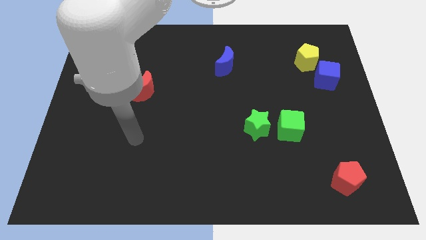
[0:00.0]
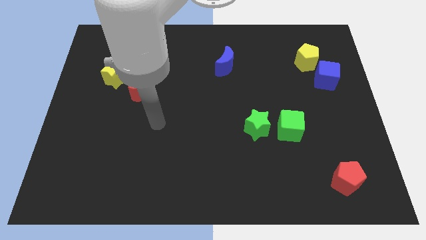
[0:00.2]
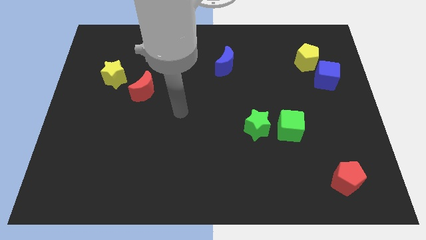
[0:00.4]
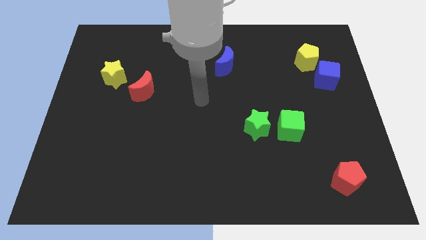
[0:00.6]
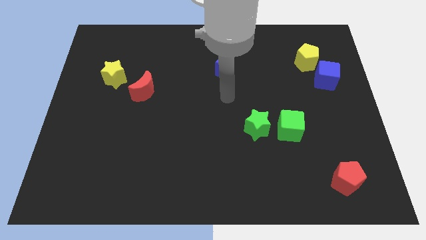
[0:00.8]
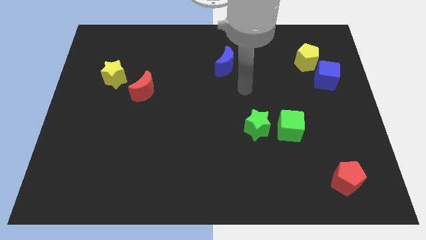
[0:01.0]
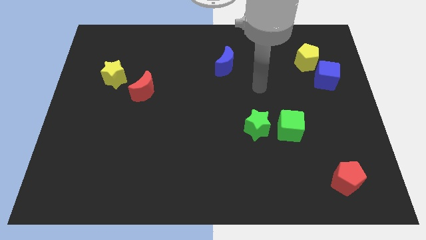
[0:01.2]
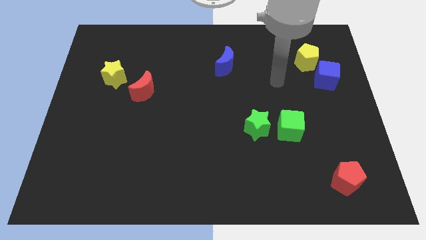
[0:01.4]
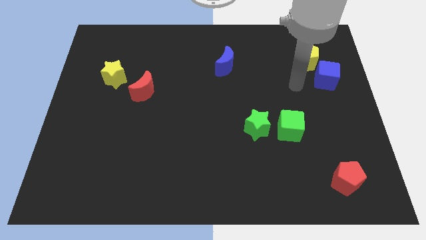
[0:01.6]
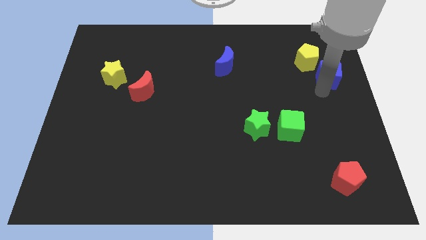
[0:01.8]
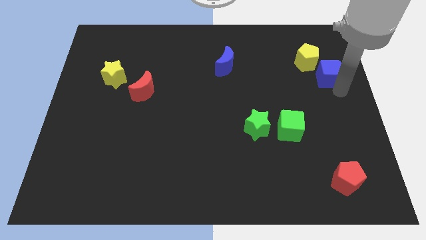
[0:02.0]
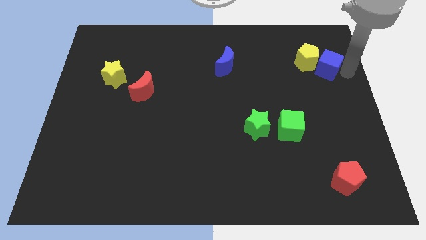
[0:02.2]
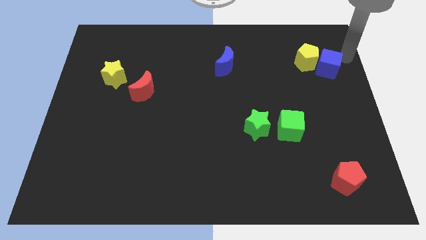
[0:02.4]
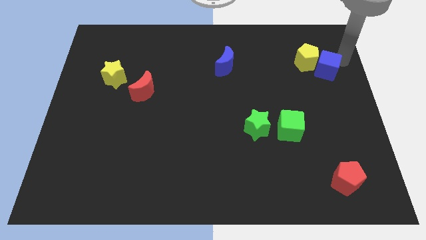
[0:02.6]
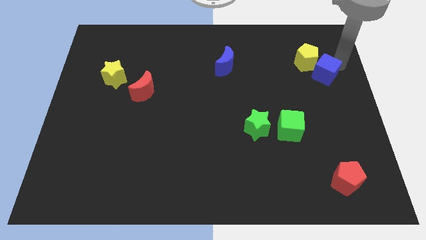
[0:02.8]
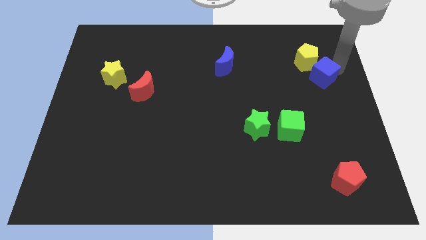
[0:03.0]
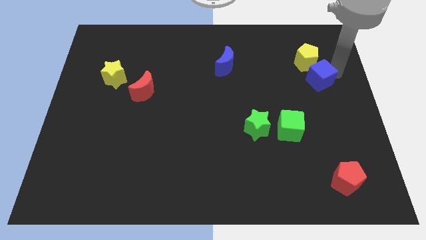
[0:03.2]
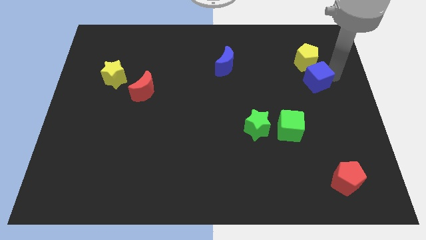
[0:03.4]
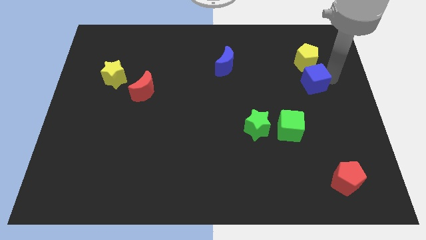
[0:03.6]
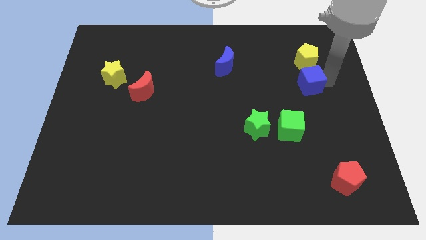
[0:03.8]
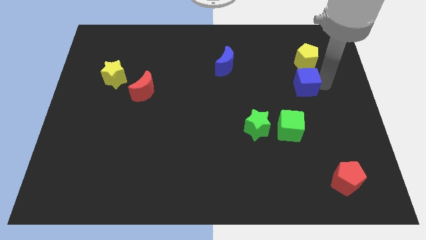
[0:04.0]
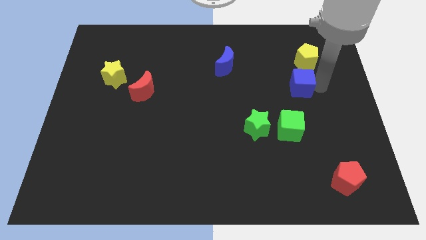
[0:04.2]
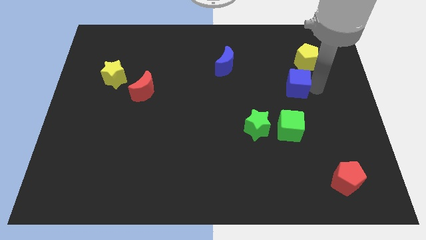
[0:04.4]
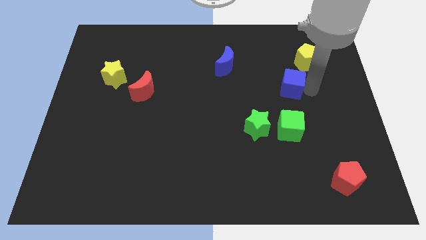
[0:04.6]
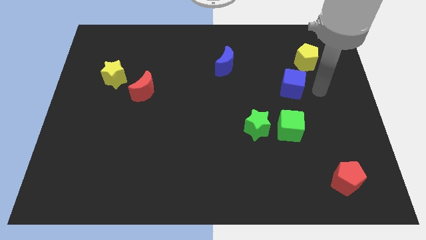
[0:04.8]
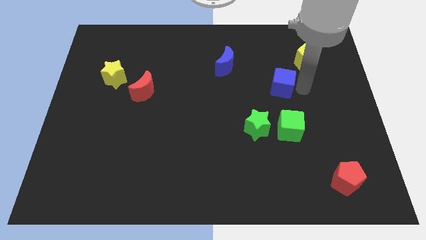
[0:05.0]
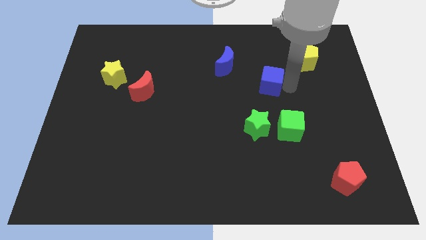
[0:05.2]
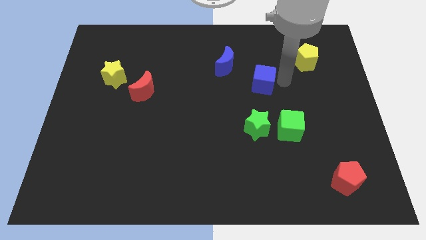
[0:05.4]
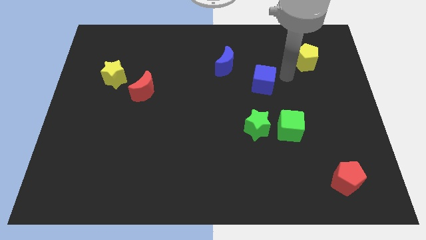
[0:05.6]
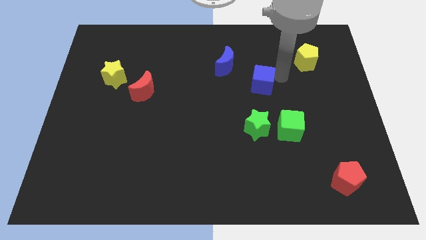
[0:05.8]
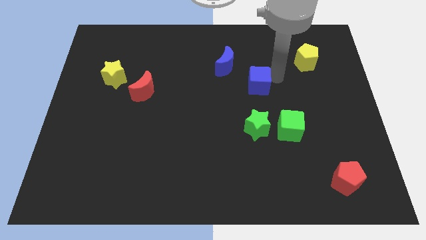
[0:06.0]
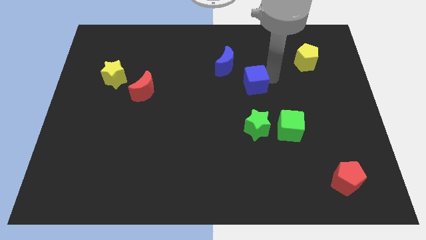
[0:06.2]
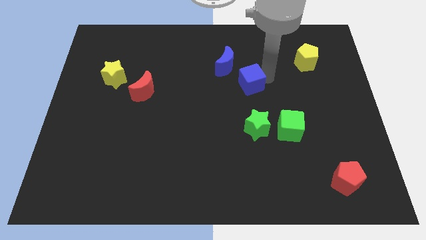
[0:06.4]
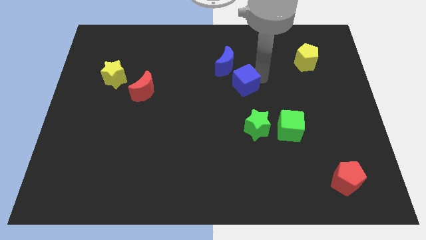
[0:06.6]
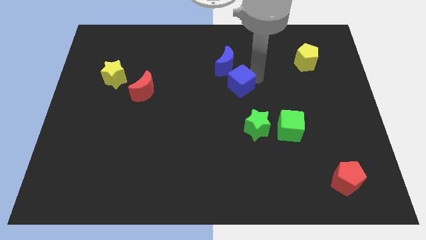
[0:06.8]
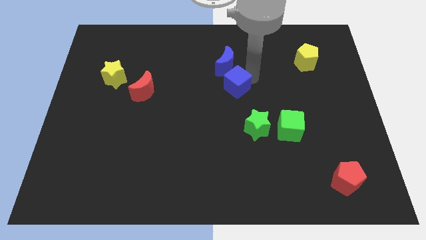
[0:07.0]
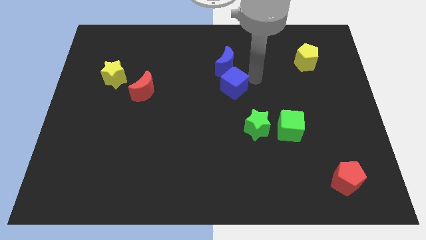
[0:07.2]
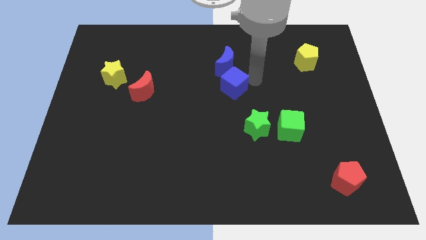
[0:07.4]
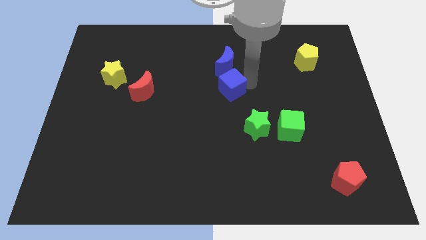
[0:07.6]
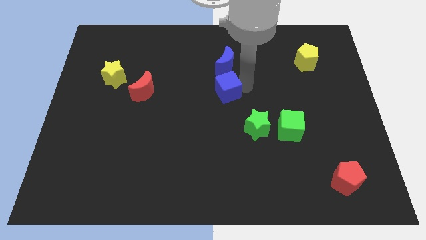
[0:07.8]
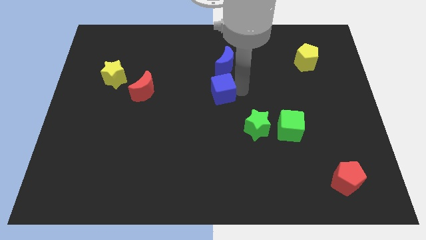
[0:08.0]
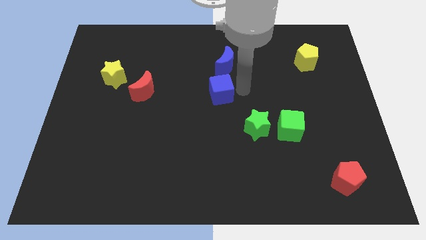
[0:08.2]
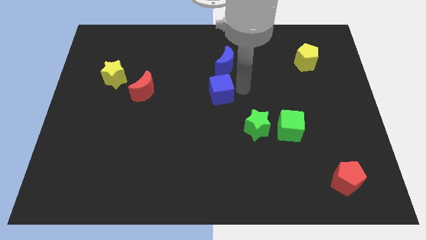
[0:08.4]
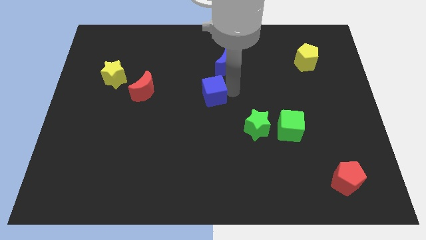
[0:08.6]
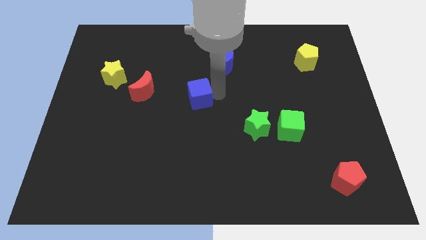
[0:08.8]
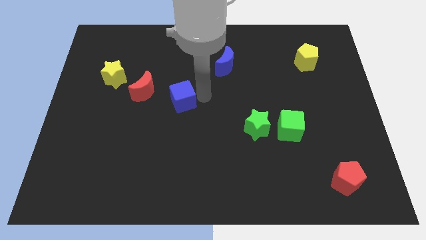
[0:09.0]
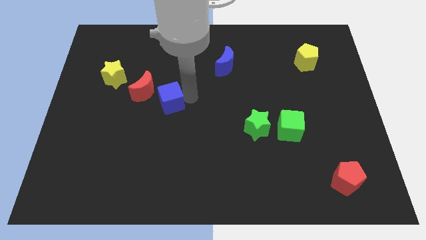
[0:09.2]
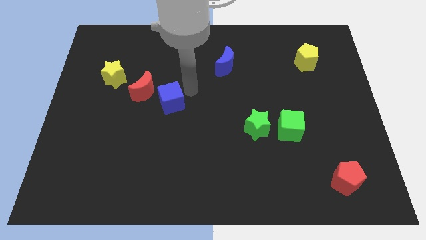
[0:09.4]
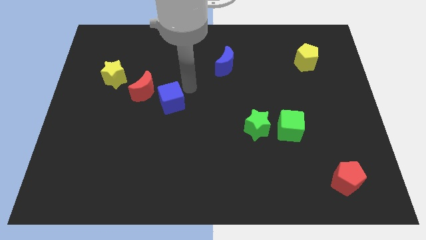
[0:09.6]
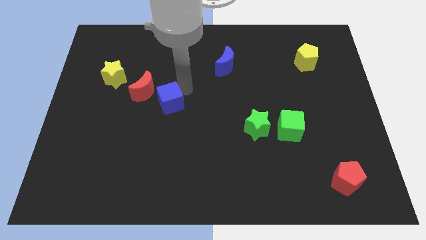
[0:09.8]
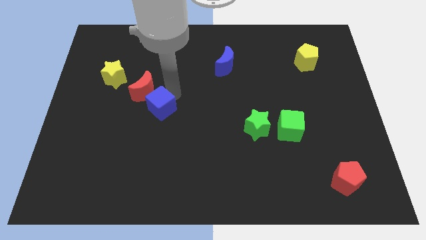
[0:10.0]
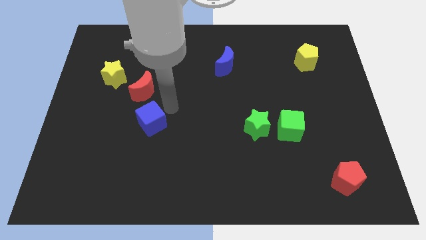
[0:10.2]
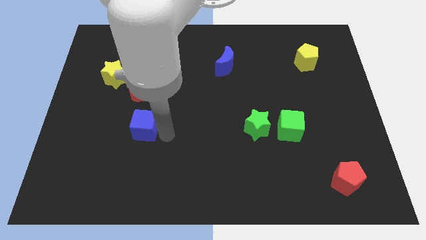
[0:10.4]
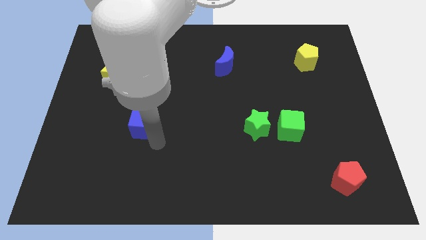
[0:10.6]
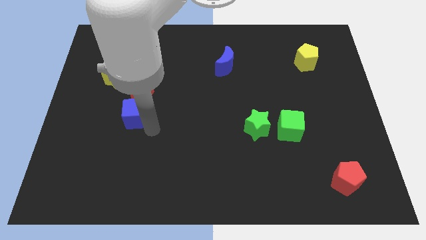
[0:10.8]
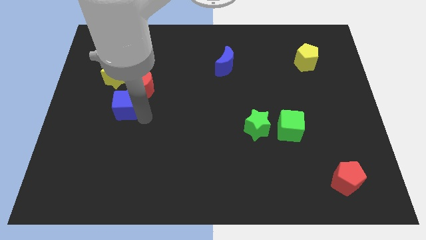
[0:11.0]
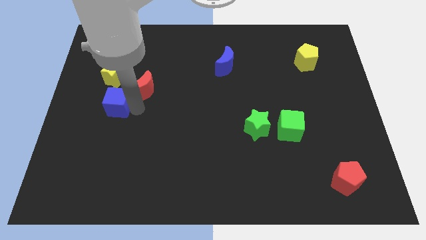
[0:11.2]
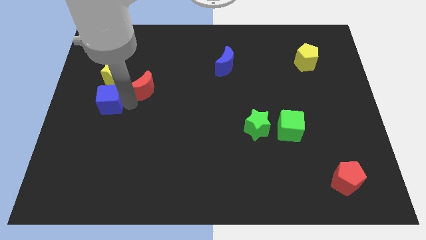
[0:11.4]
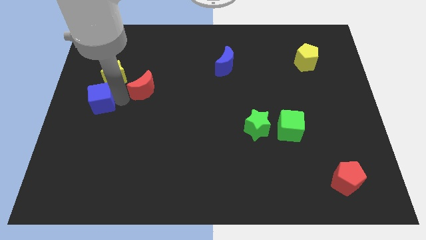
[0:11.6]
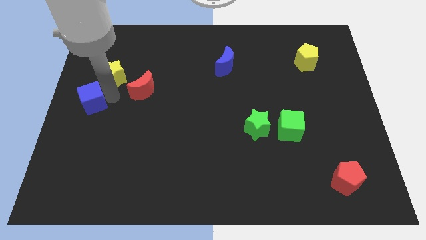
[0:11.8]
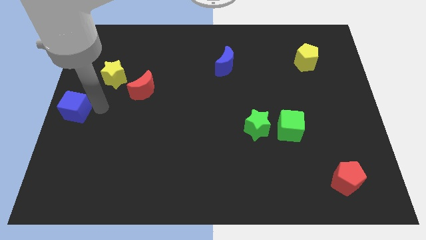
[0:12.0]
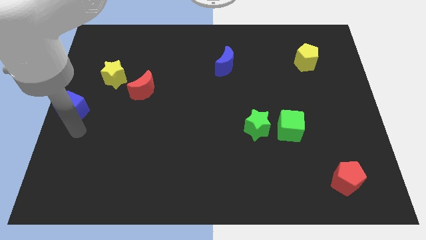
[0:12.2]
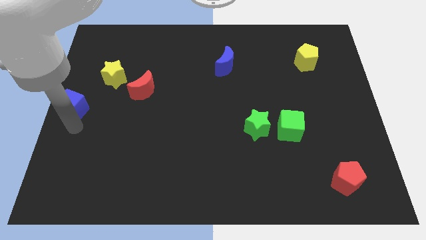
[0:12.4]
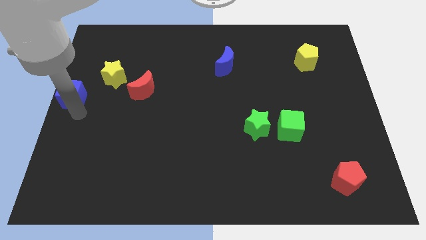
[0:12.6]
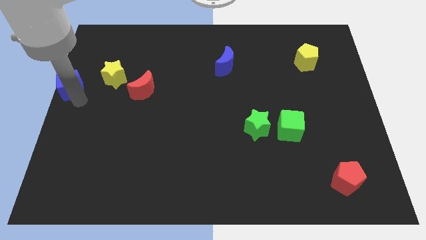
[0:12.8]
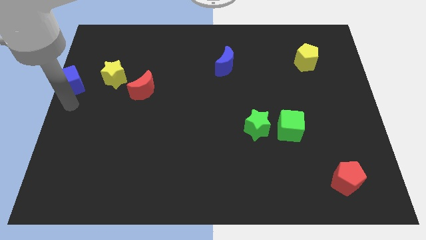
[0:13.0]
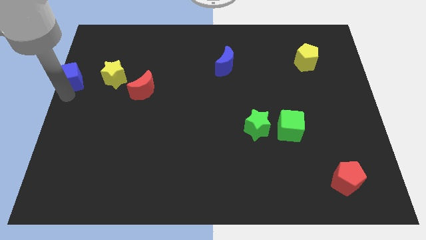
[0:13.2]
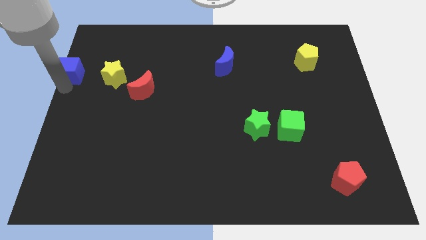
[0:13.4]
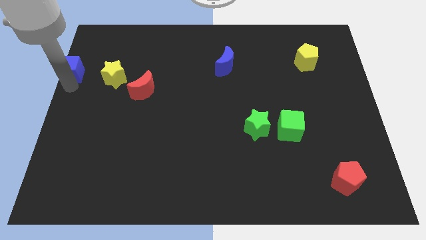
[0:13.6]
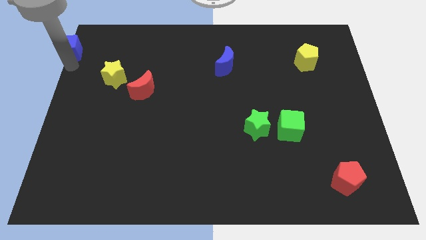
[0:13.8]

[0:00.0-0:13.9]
put the blue cube to the top left corner

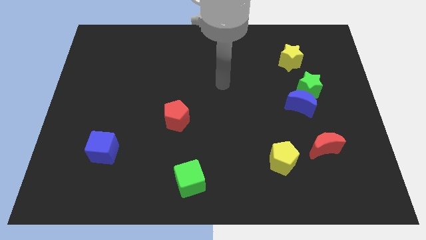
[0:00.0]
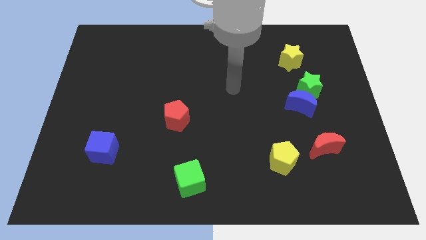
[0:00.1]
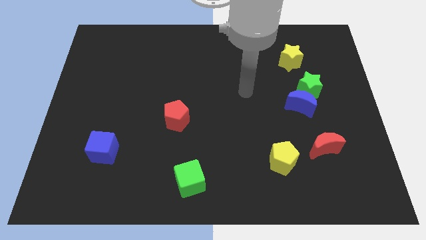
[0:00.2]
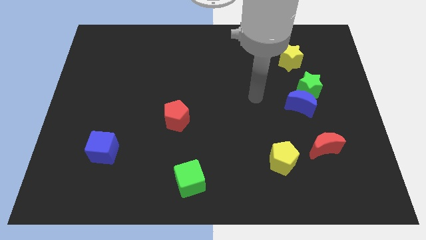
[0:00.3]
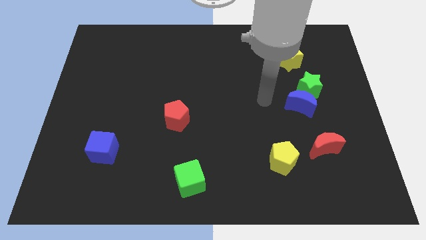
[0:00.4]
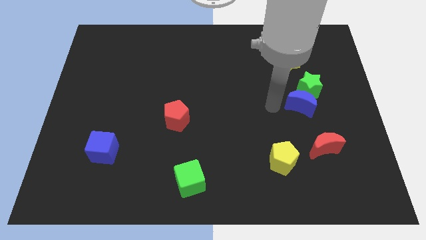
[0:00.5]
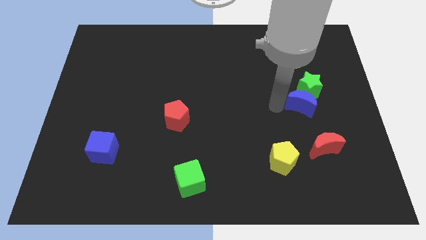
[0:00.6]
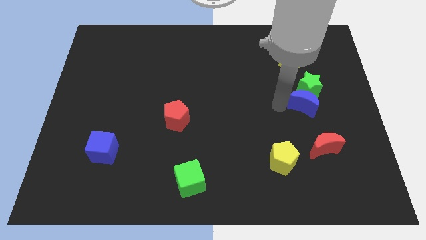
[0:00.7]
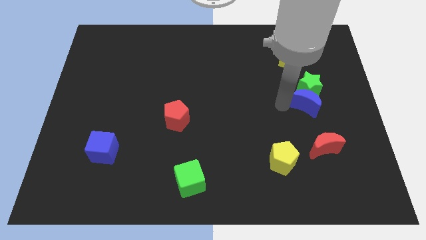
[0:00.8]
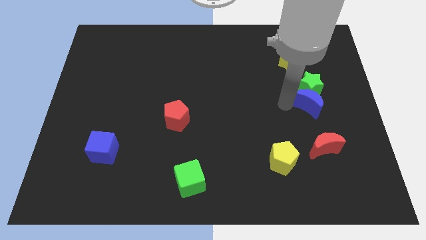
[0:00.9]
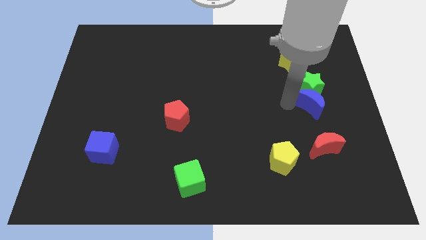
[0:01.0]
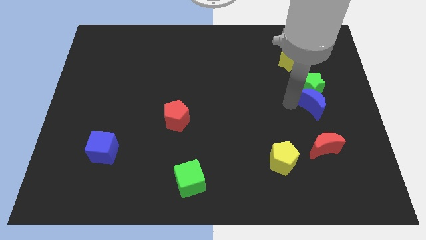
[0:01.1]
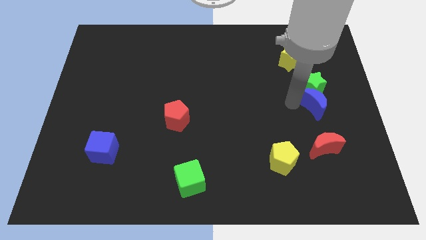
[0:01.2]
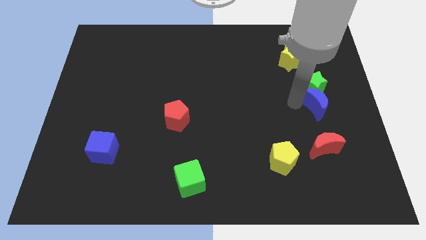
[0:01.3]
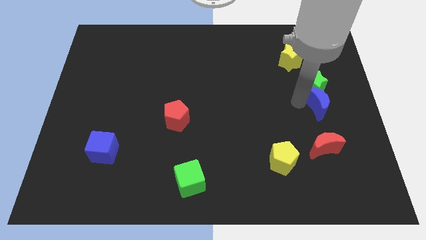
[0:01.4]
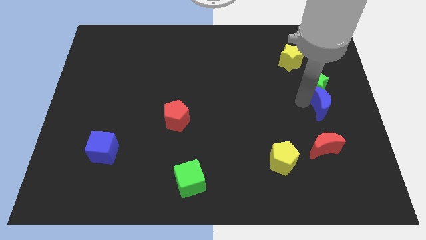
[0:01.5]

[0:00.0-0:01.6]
put the blue moon to the right side
